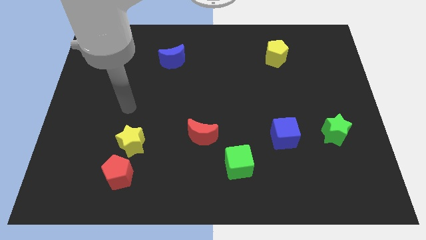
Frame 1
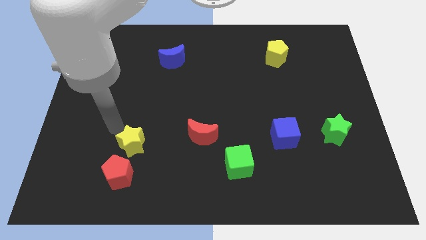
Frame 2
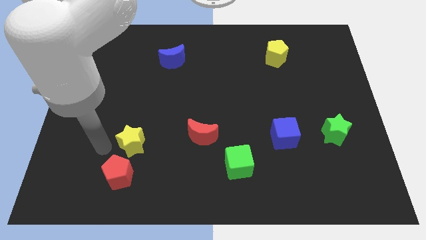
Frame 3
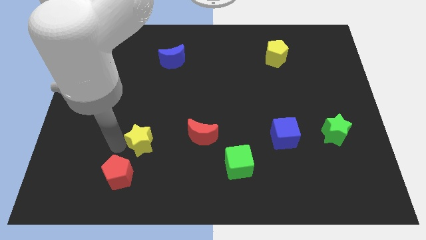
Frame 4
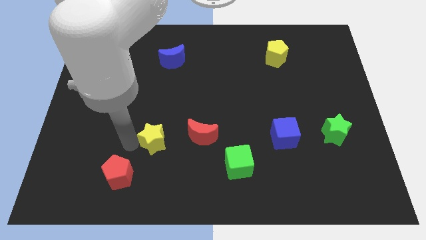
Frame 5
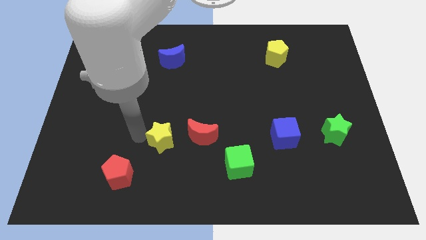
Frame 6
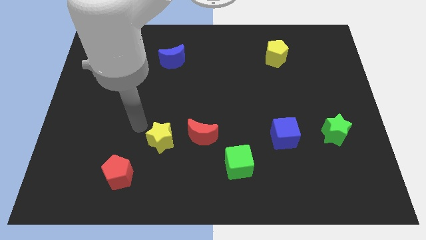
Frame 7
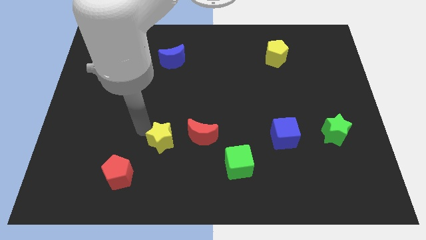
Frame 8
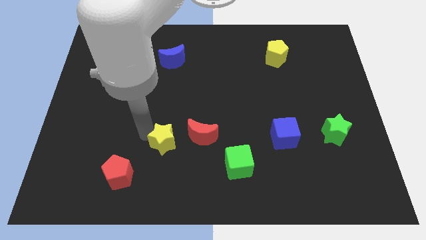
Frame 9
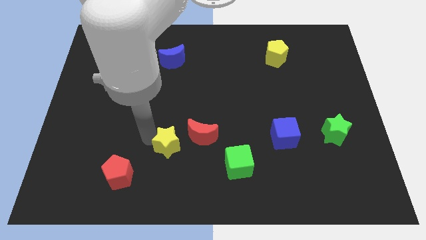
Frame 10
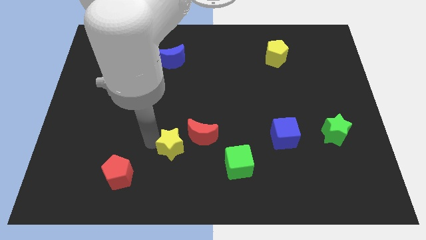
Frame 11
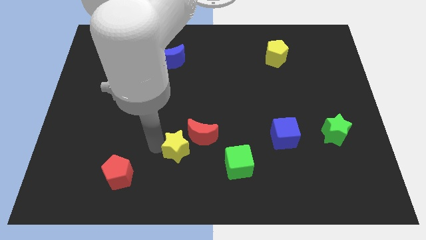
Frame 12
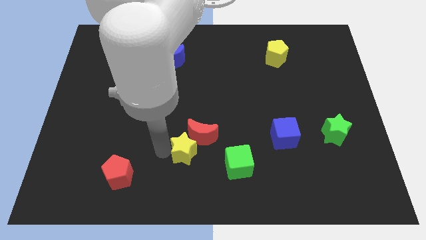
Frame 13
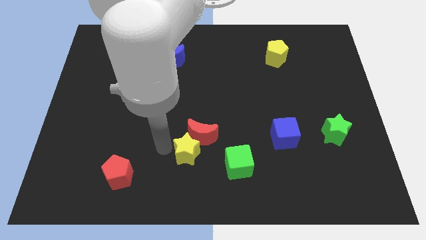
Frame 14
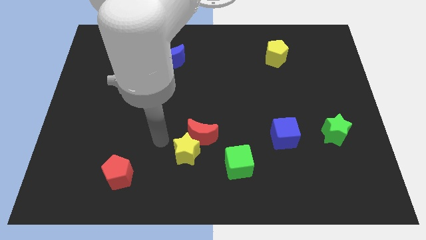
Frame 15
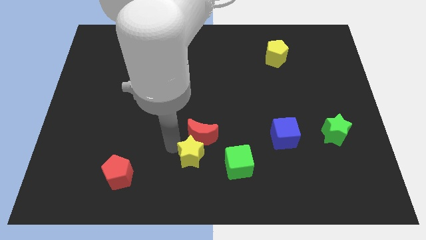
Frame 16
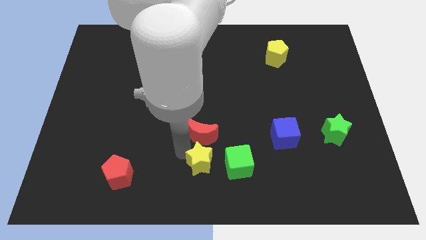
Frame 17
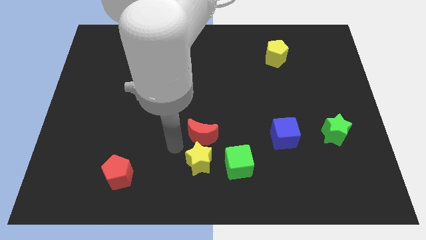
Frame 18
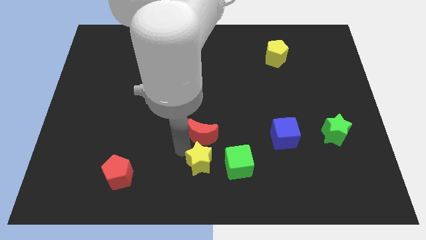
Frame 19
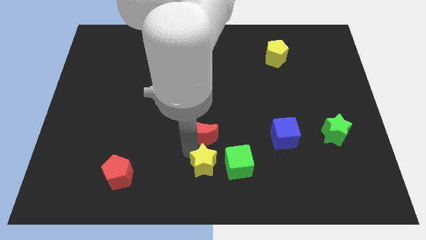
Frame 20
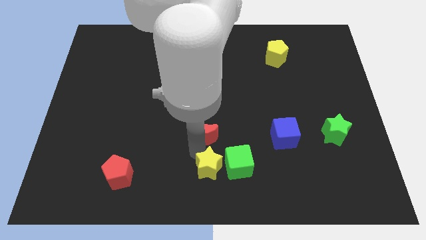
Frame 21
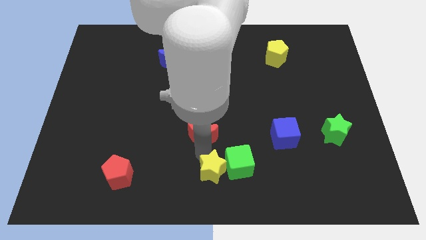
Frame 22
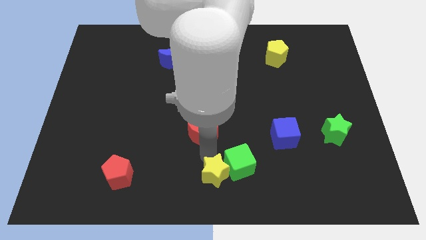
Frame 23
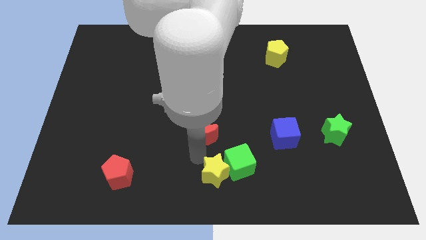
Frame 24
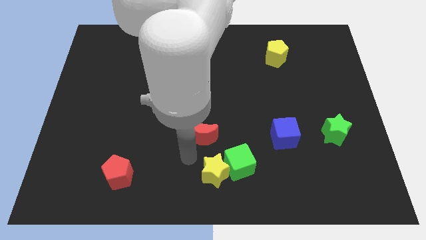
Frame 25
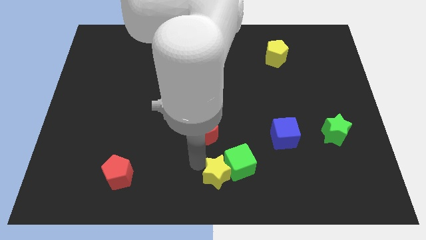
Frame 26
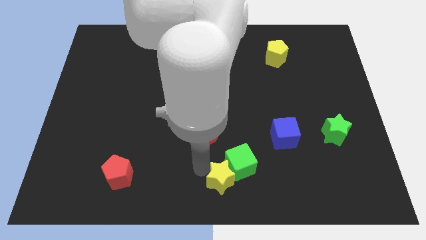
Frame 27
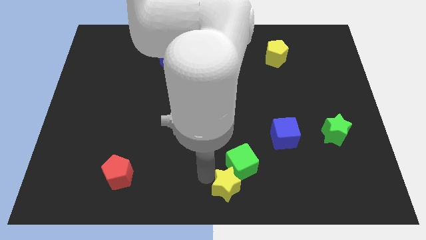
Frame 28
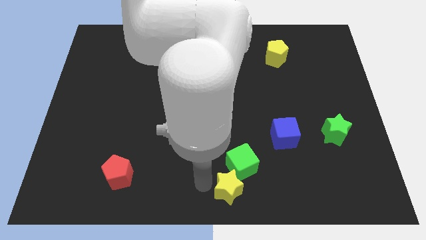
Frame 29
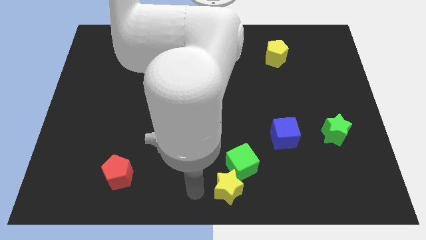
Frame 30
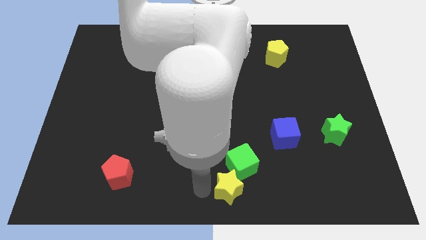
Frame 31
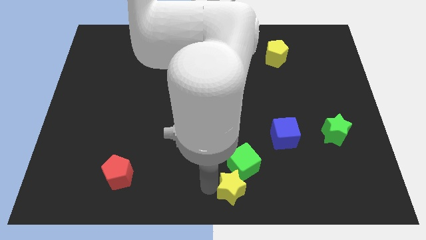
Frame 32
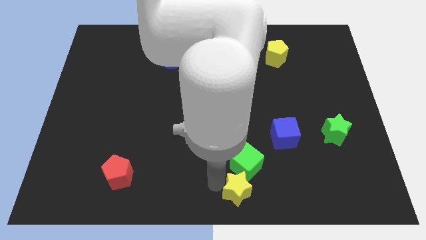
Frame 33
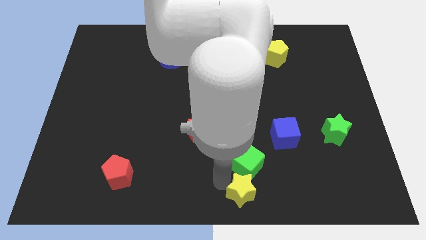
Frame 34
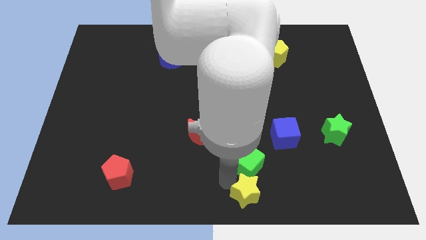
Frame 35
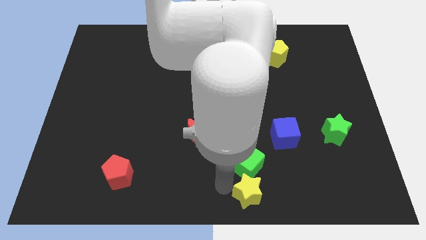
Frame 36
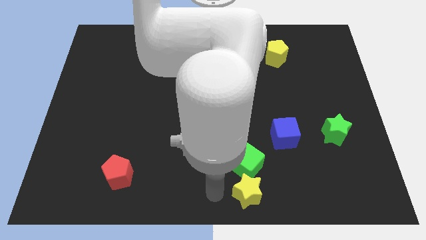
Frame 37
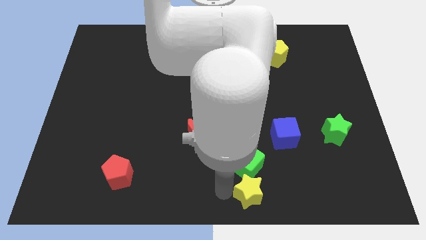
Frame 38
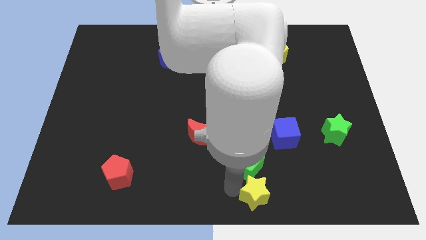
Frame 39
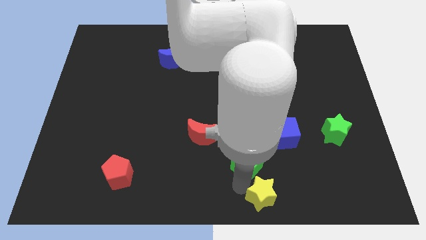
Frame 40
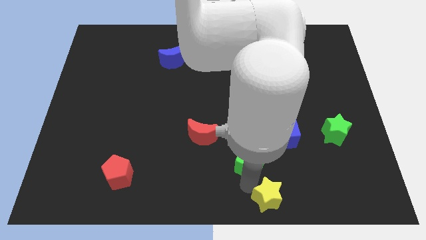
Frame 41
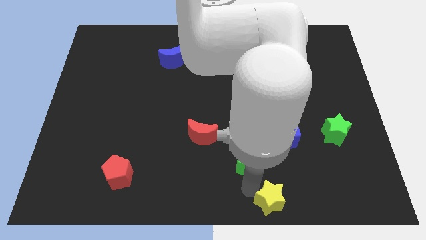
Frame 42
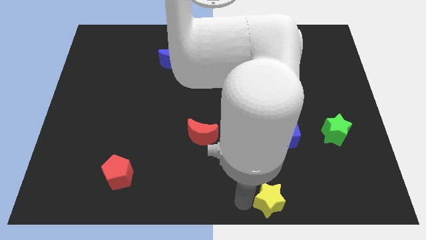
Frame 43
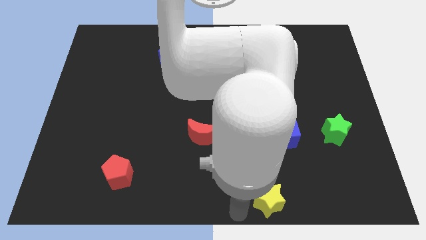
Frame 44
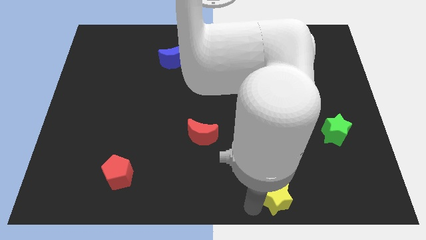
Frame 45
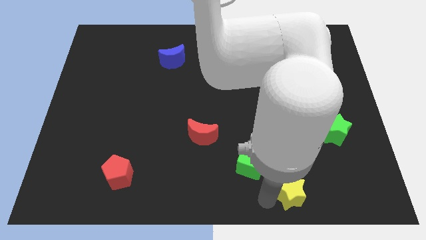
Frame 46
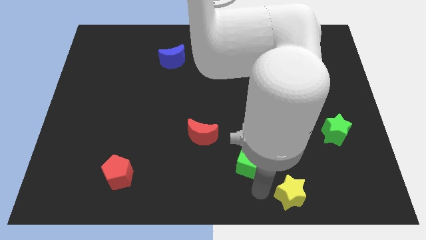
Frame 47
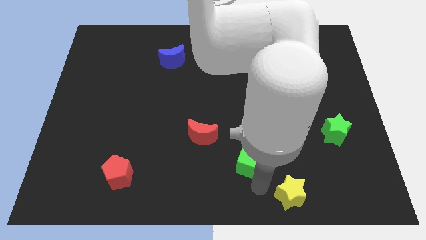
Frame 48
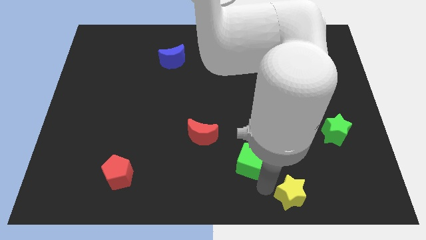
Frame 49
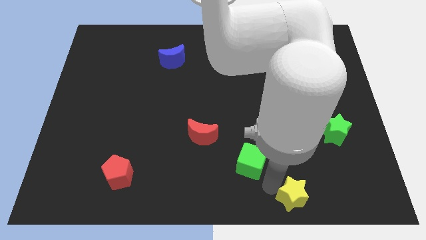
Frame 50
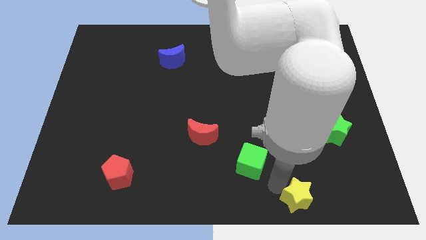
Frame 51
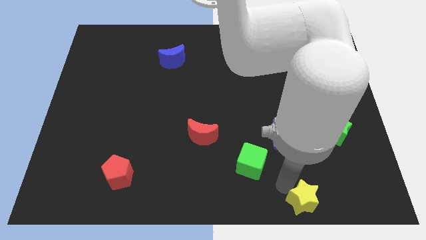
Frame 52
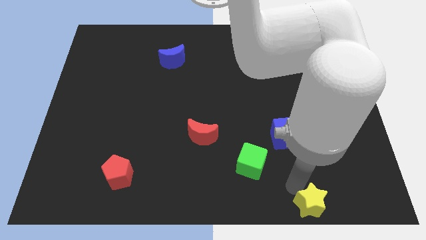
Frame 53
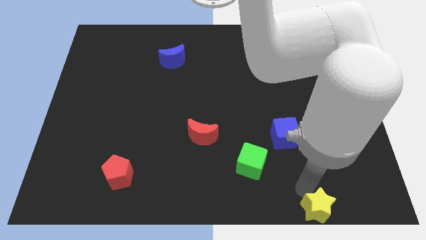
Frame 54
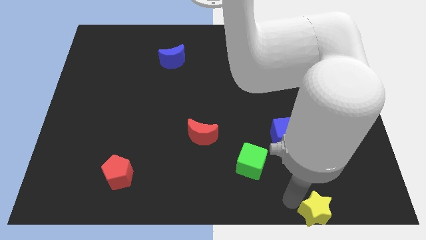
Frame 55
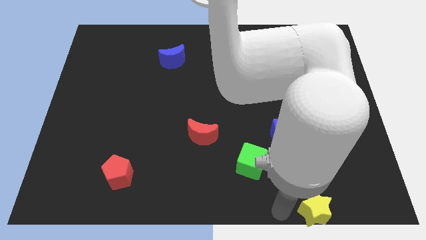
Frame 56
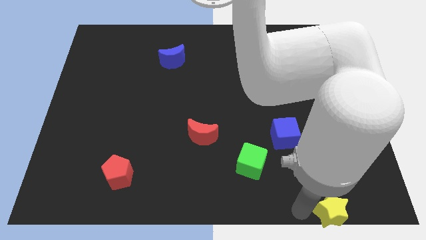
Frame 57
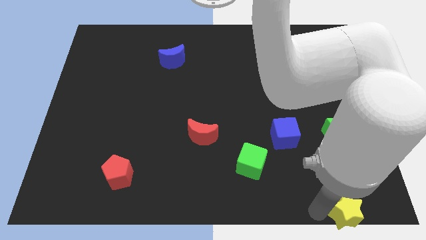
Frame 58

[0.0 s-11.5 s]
move the yellow star to the bottom right of the board
